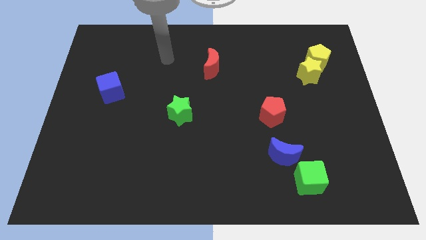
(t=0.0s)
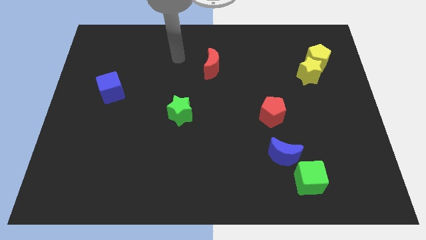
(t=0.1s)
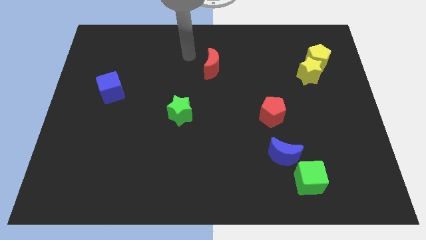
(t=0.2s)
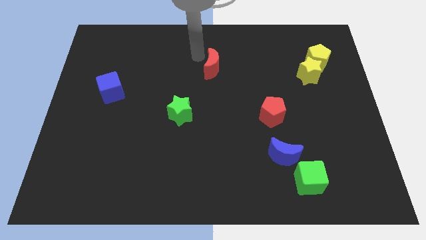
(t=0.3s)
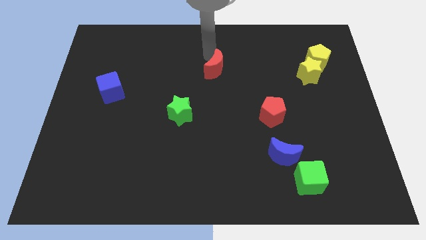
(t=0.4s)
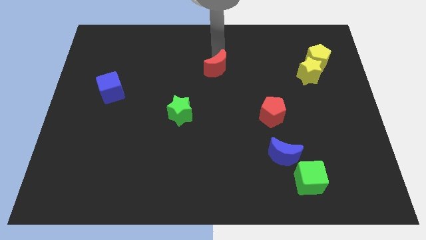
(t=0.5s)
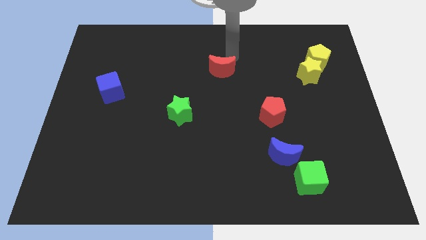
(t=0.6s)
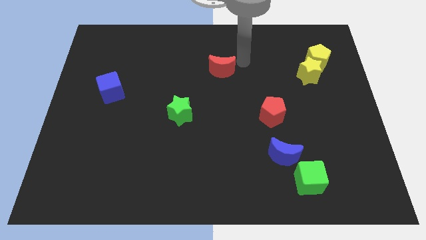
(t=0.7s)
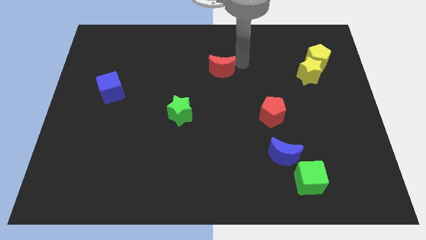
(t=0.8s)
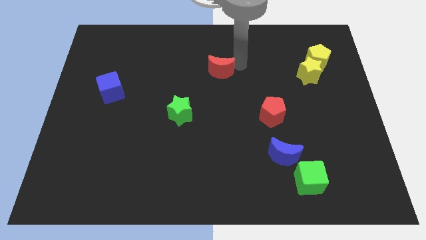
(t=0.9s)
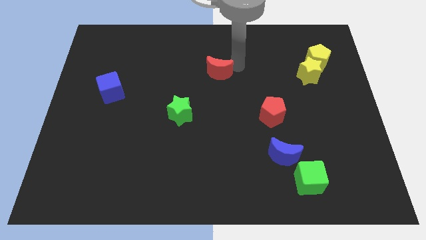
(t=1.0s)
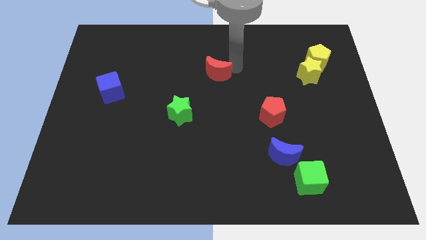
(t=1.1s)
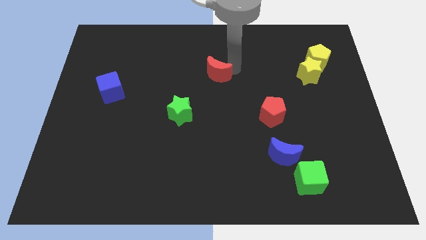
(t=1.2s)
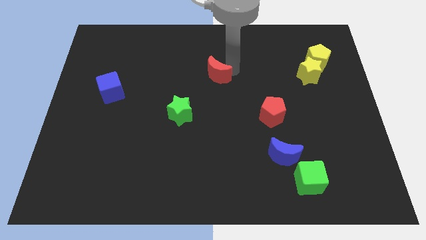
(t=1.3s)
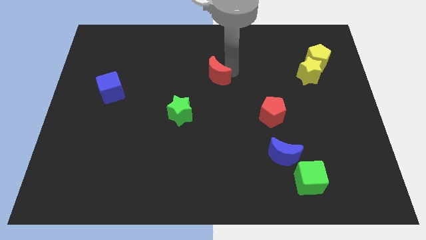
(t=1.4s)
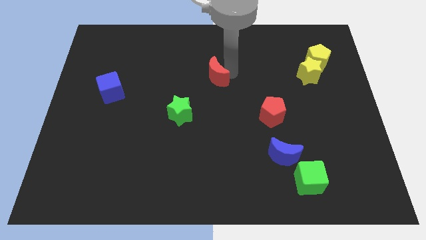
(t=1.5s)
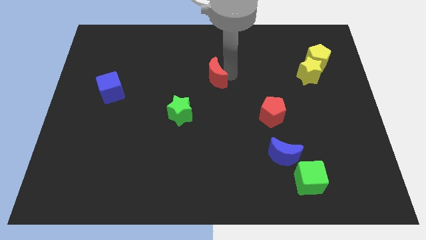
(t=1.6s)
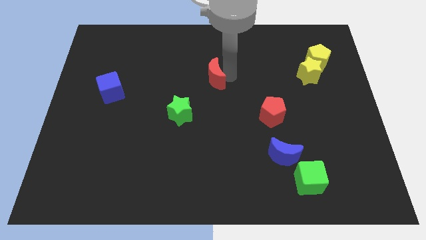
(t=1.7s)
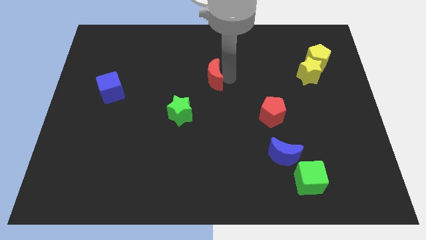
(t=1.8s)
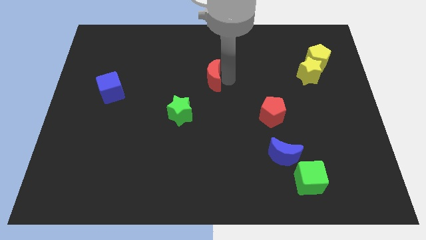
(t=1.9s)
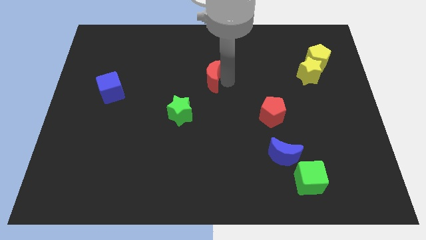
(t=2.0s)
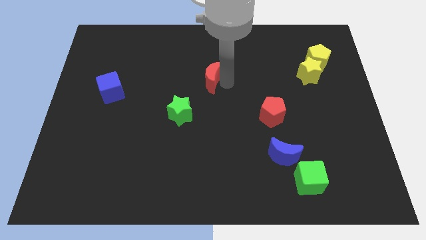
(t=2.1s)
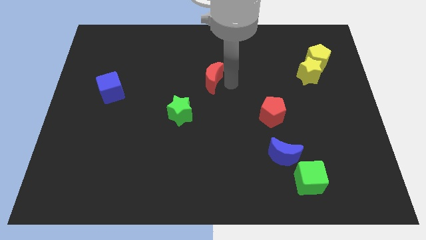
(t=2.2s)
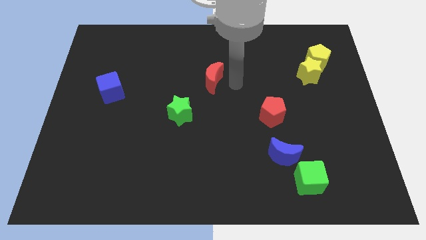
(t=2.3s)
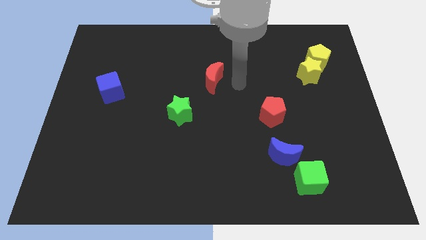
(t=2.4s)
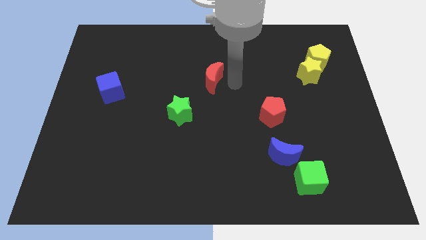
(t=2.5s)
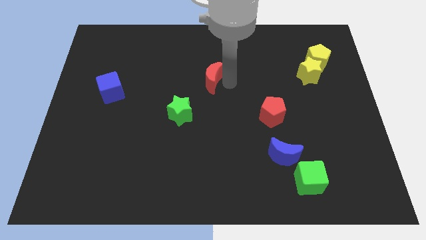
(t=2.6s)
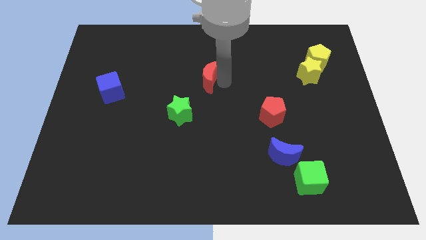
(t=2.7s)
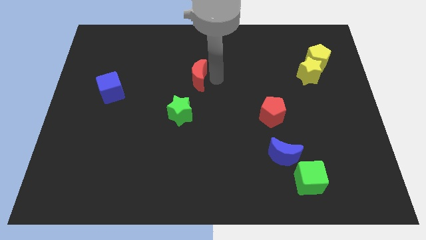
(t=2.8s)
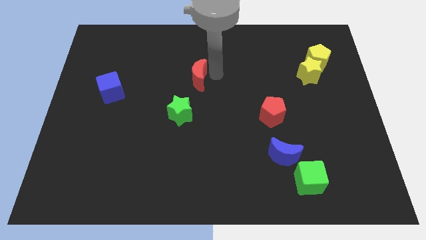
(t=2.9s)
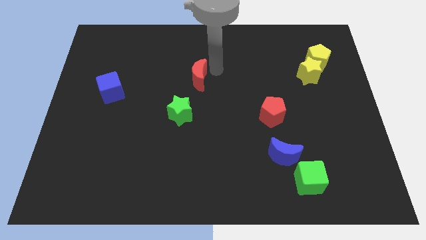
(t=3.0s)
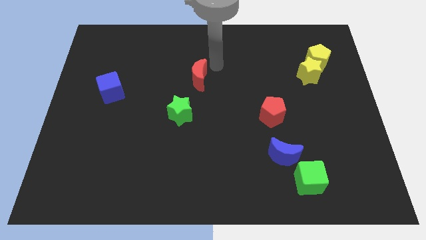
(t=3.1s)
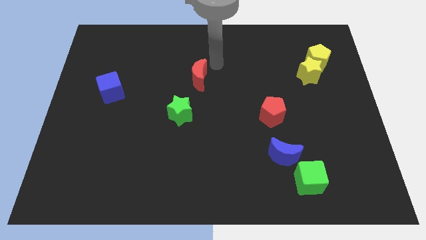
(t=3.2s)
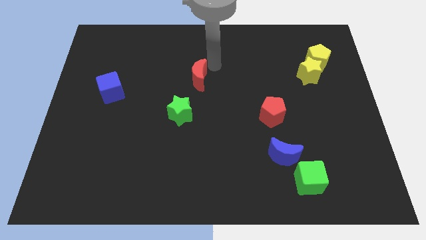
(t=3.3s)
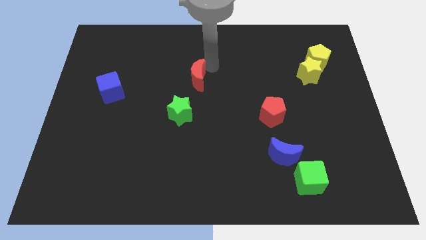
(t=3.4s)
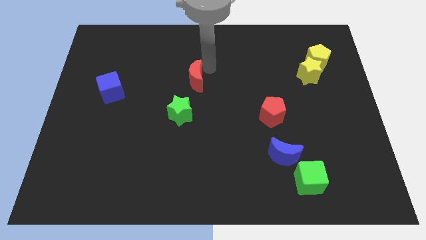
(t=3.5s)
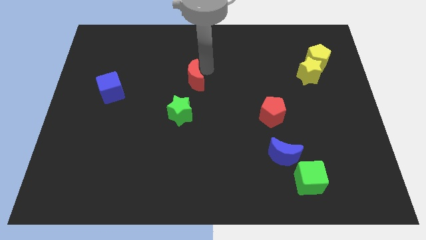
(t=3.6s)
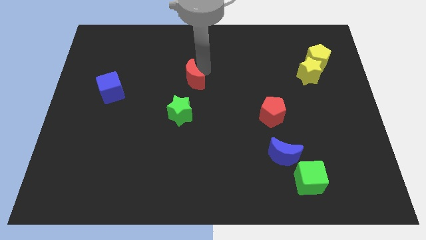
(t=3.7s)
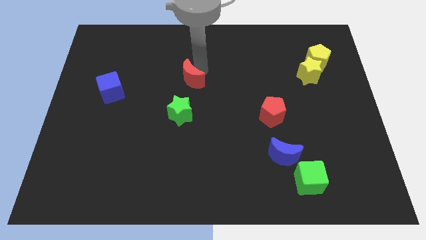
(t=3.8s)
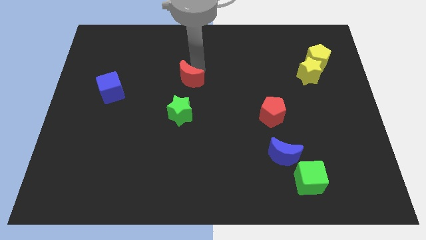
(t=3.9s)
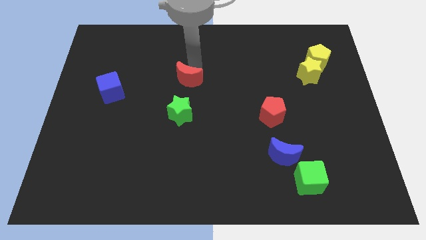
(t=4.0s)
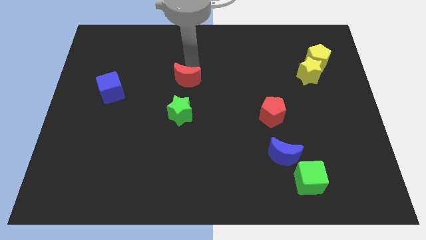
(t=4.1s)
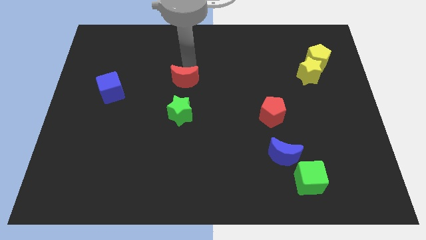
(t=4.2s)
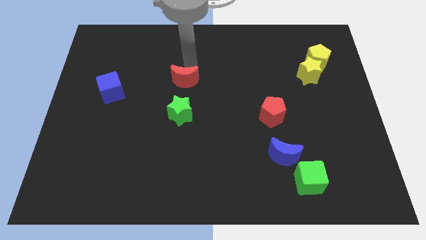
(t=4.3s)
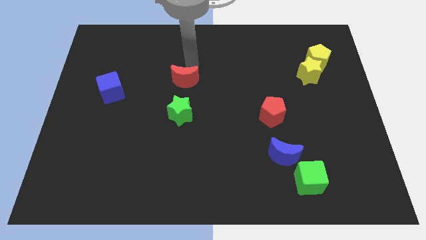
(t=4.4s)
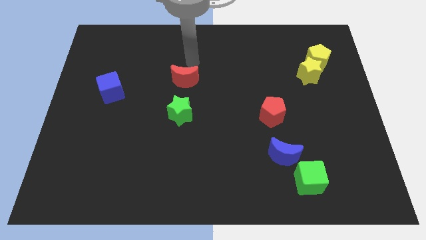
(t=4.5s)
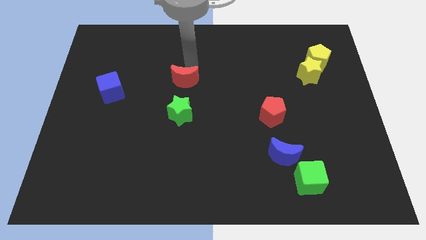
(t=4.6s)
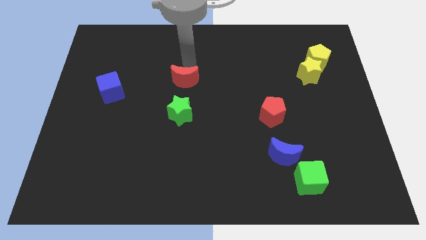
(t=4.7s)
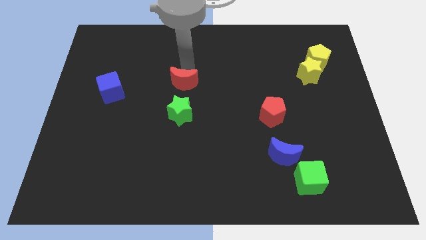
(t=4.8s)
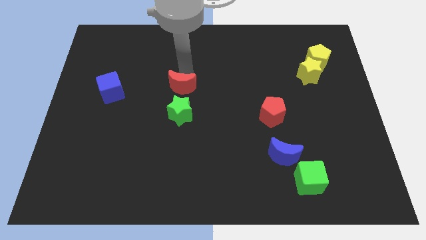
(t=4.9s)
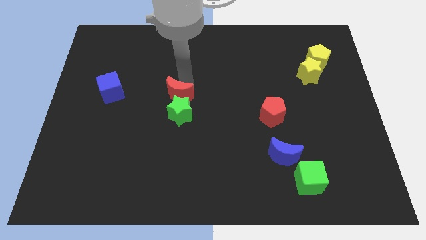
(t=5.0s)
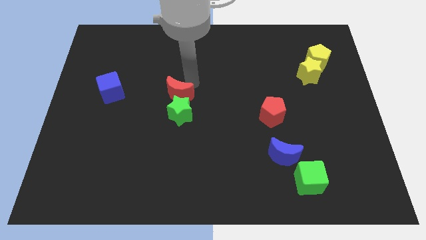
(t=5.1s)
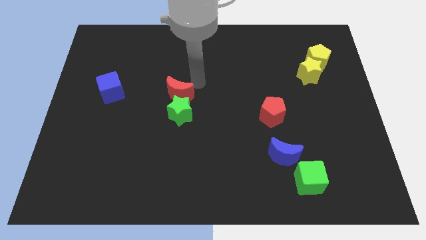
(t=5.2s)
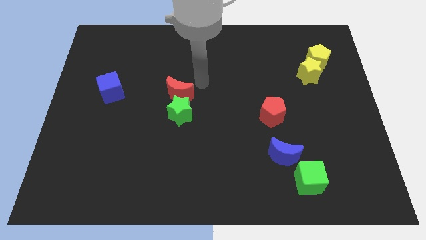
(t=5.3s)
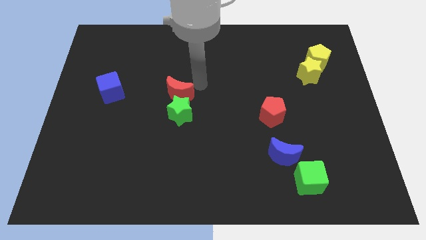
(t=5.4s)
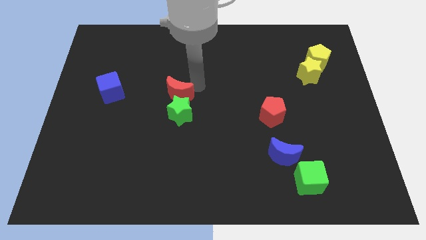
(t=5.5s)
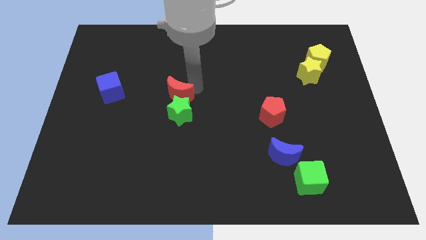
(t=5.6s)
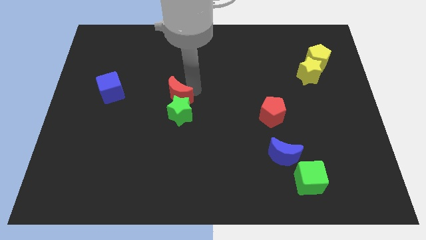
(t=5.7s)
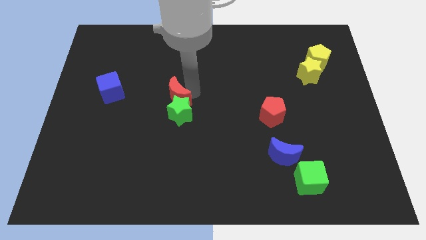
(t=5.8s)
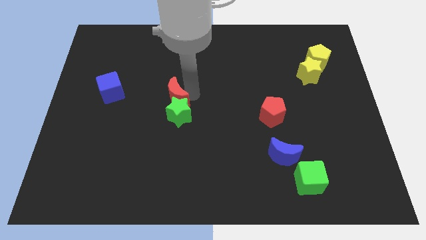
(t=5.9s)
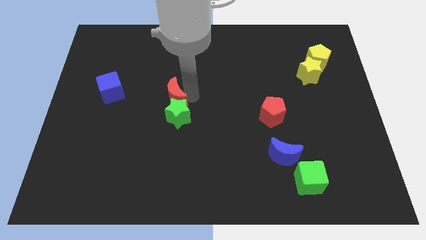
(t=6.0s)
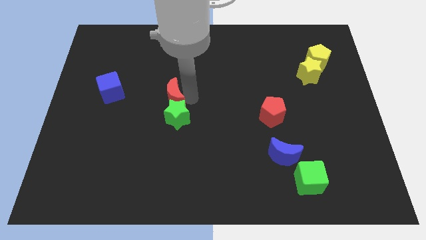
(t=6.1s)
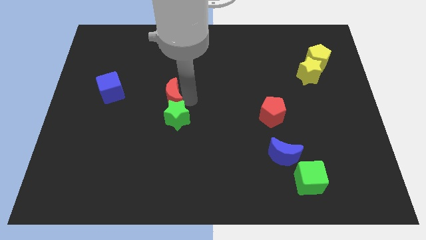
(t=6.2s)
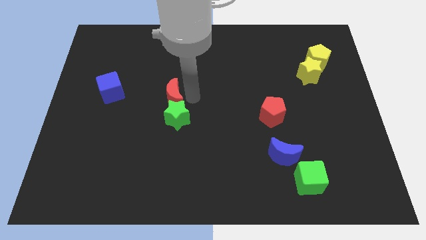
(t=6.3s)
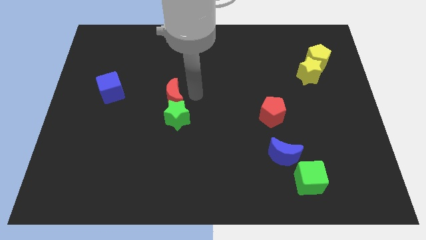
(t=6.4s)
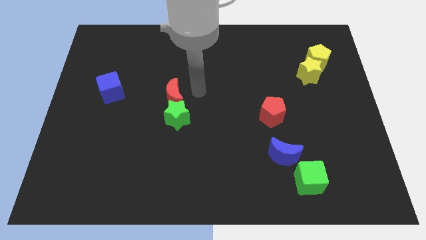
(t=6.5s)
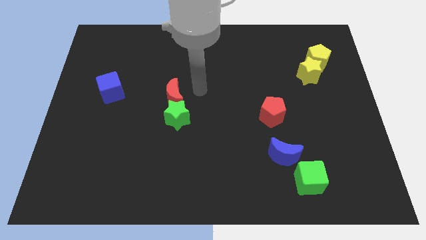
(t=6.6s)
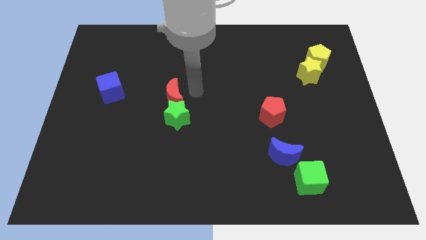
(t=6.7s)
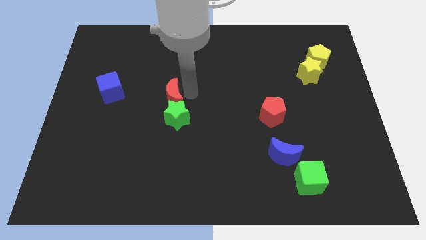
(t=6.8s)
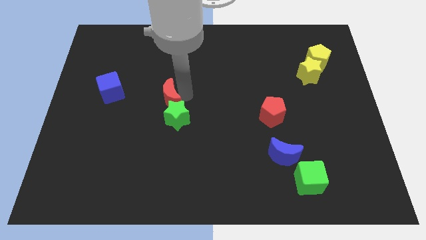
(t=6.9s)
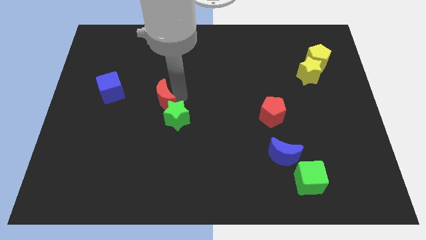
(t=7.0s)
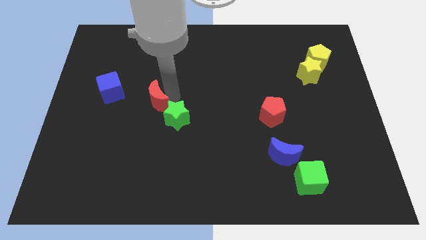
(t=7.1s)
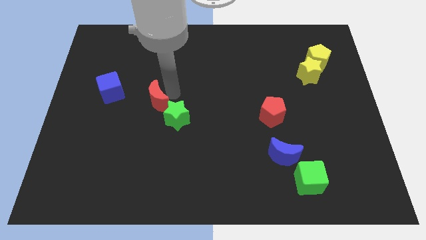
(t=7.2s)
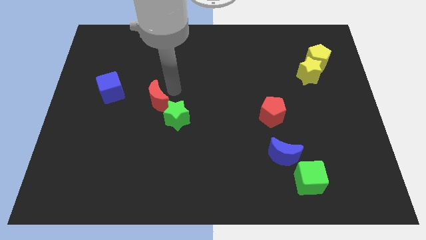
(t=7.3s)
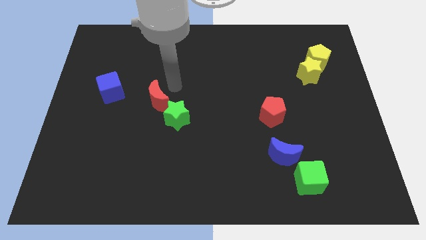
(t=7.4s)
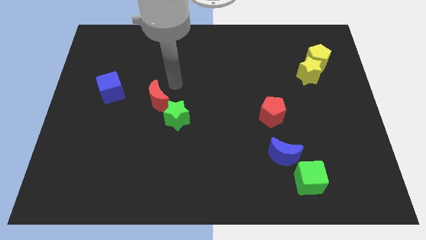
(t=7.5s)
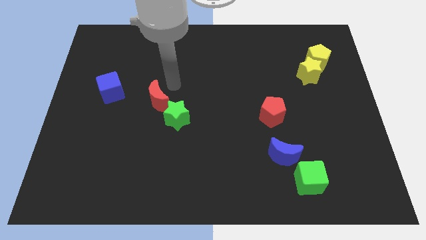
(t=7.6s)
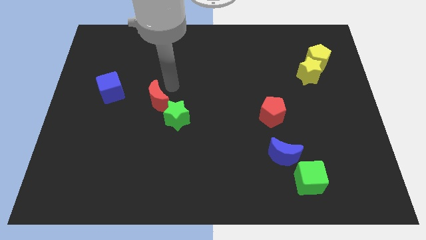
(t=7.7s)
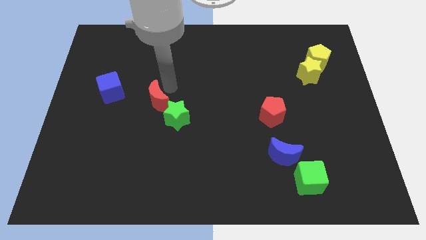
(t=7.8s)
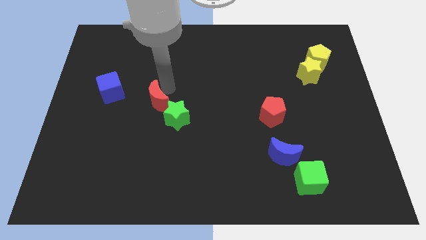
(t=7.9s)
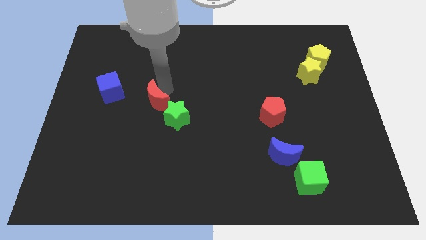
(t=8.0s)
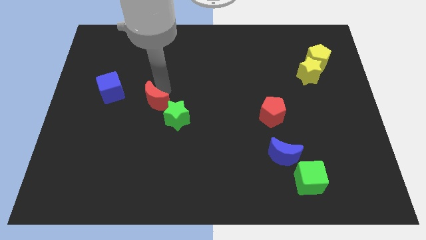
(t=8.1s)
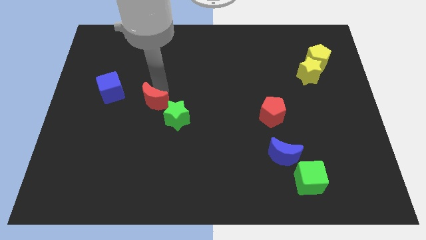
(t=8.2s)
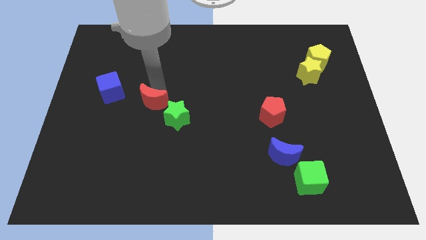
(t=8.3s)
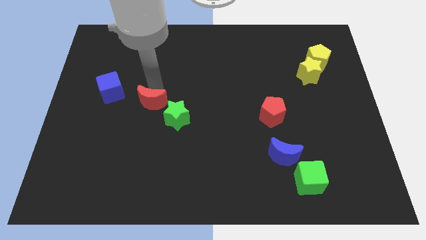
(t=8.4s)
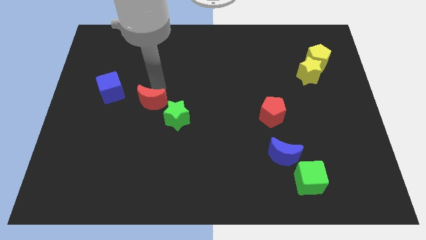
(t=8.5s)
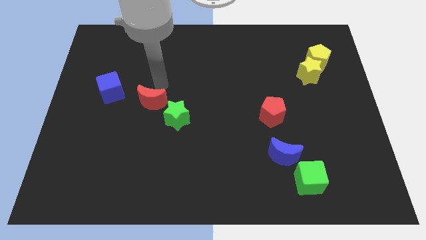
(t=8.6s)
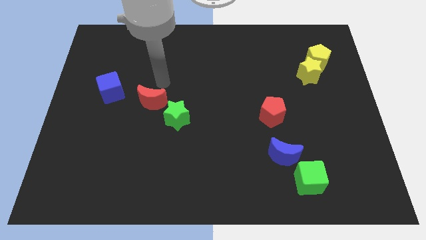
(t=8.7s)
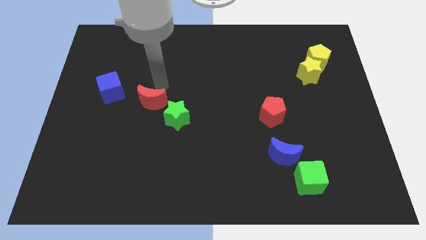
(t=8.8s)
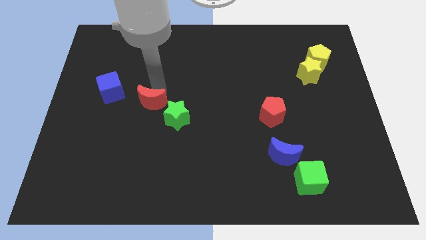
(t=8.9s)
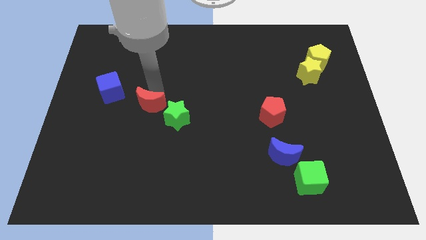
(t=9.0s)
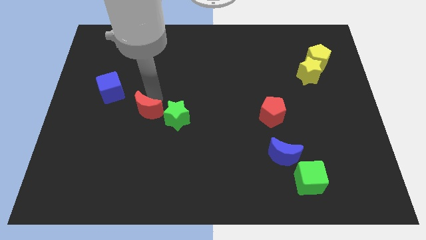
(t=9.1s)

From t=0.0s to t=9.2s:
move the red moon diagonally down and left
